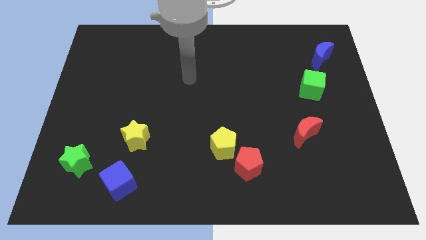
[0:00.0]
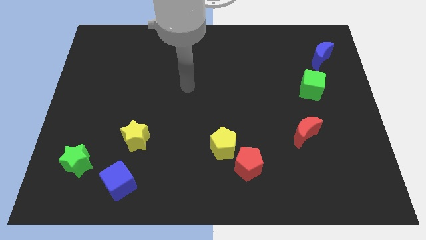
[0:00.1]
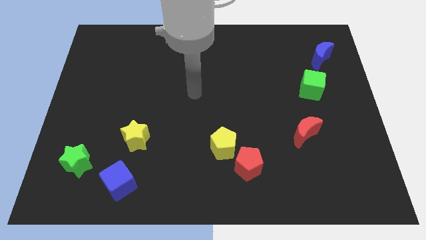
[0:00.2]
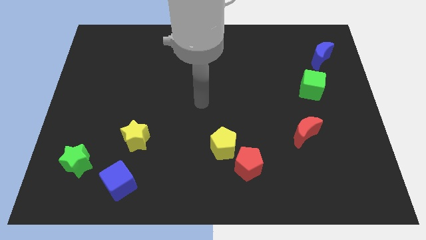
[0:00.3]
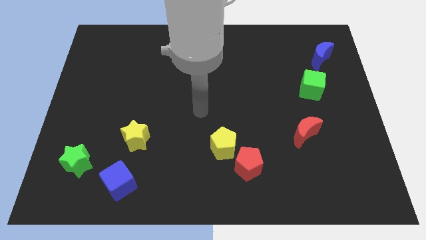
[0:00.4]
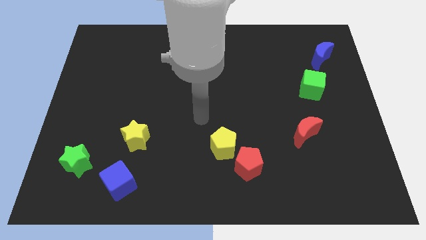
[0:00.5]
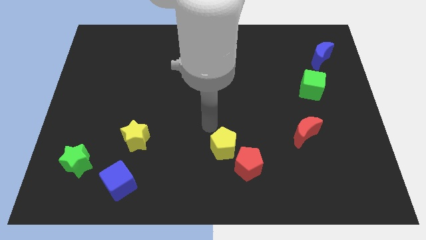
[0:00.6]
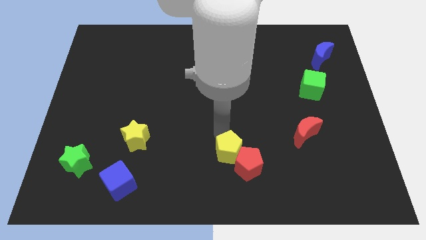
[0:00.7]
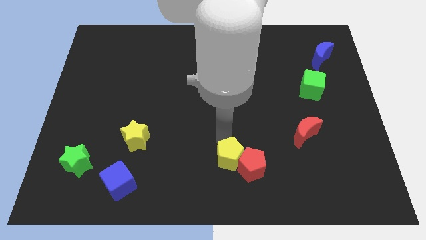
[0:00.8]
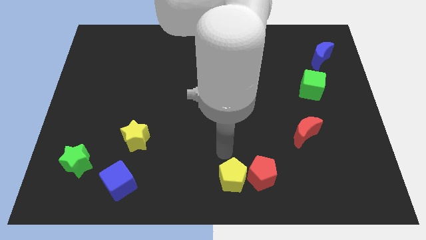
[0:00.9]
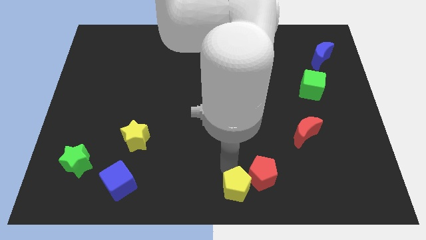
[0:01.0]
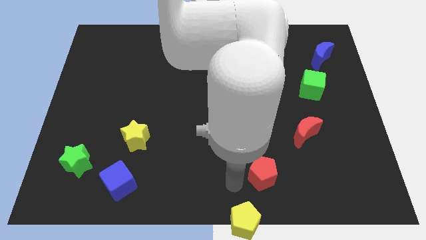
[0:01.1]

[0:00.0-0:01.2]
move the red pentagon away from the yellow pentagon

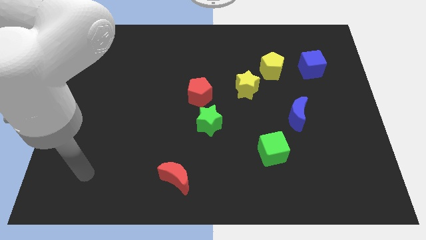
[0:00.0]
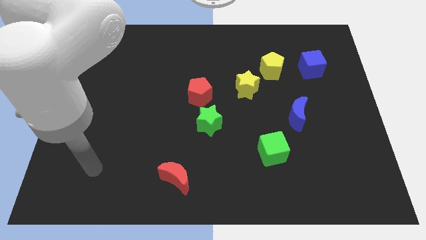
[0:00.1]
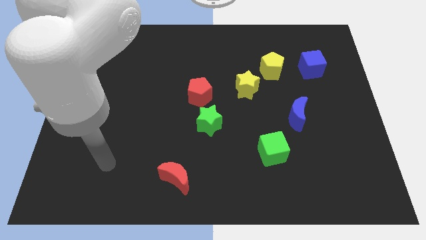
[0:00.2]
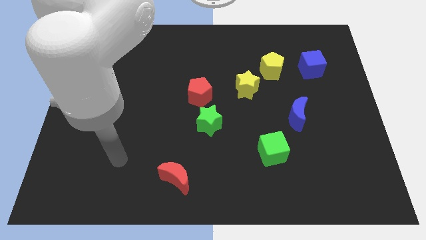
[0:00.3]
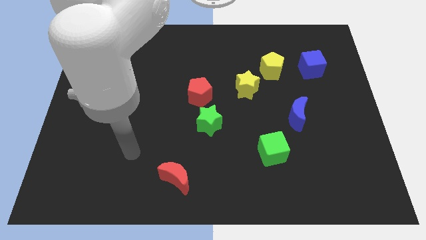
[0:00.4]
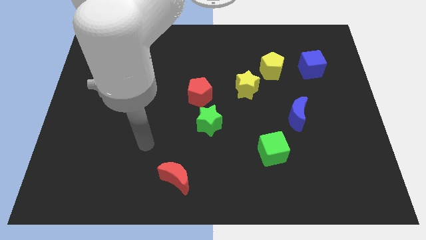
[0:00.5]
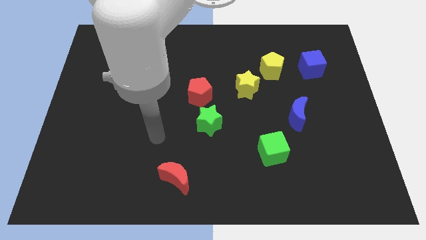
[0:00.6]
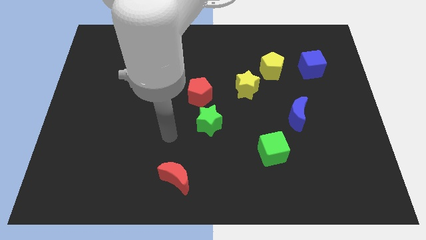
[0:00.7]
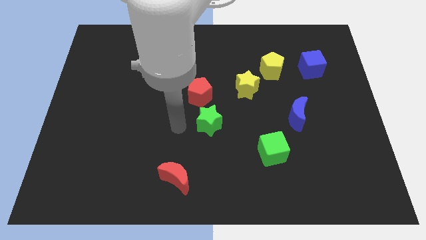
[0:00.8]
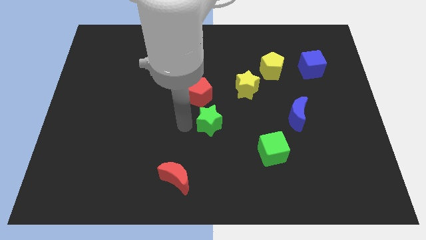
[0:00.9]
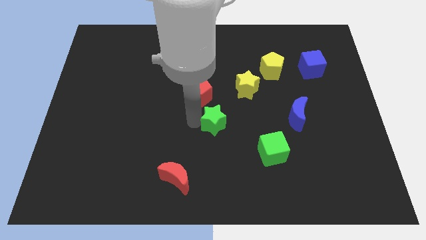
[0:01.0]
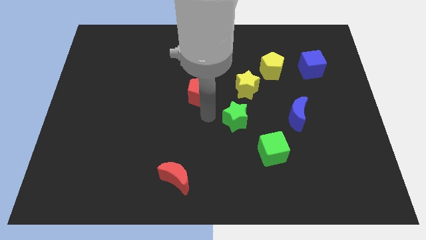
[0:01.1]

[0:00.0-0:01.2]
separate the red pentagon from the green star

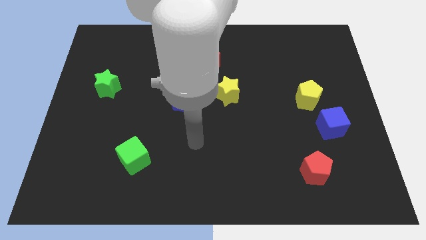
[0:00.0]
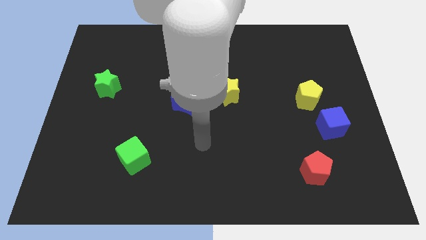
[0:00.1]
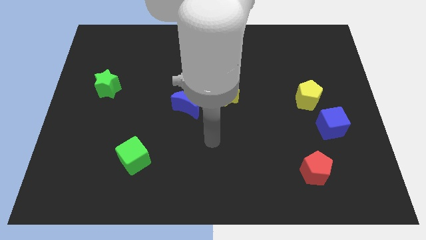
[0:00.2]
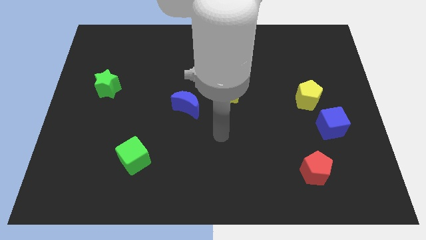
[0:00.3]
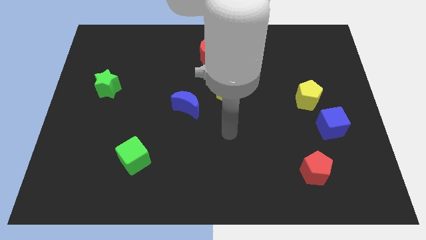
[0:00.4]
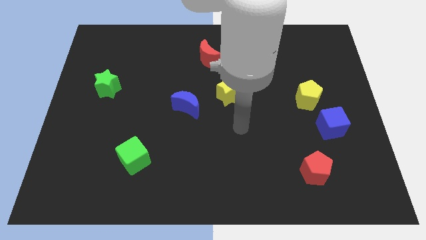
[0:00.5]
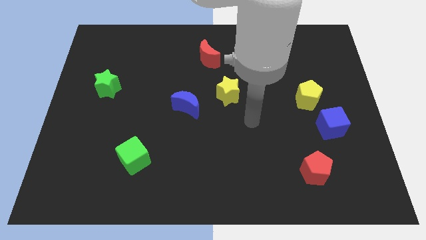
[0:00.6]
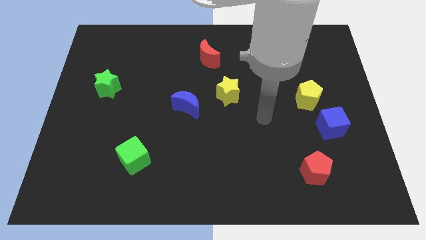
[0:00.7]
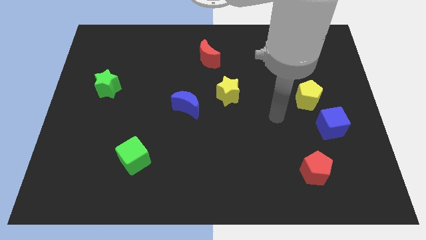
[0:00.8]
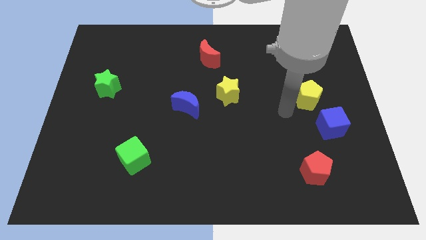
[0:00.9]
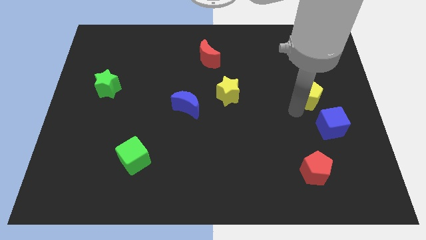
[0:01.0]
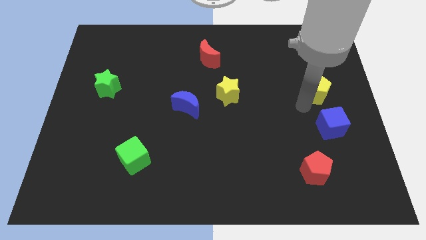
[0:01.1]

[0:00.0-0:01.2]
move the blue cube away from the yellow pentagon

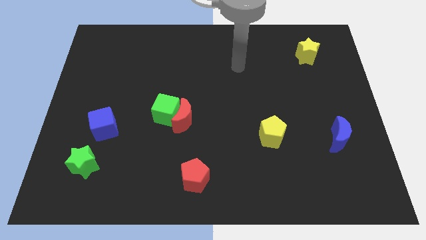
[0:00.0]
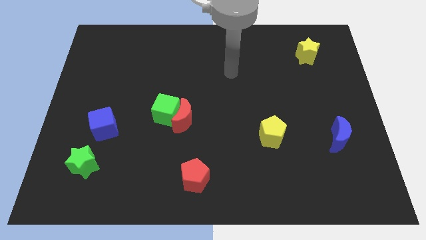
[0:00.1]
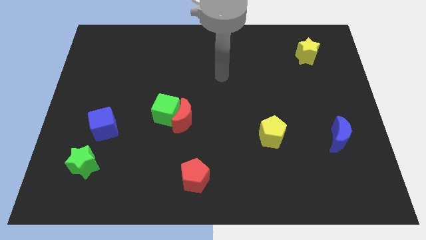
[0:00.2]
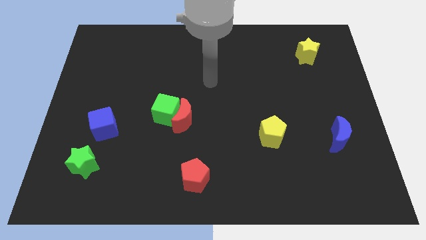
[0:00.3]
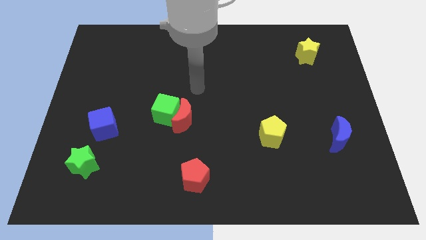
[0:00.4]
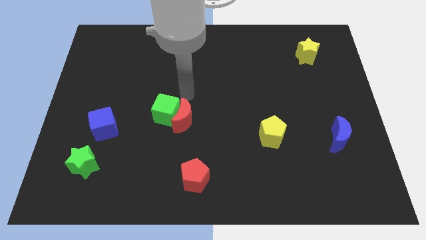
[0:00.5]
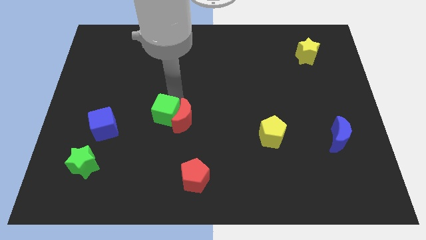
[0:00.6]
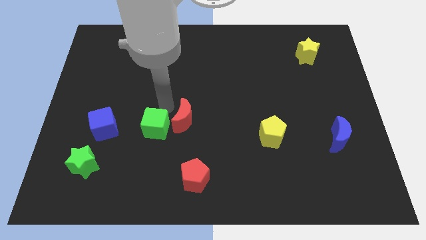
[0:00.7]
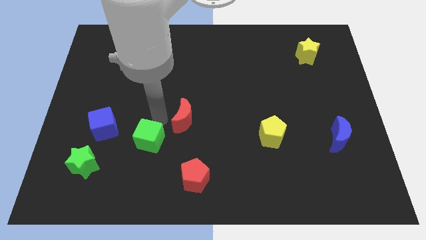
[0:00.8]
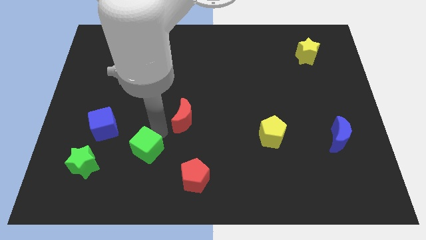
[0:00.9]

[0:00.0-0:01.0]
pull the red moon apart from the green cube

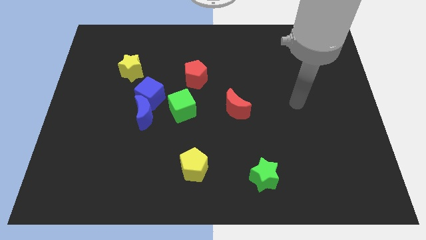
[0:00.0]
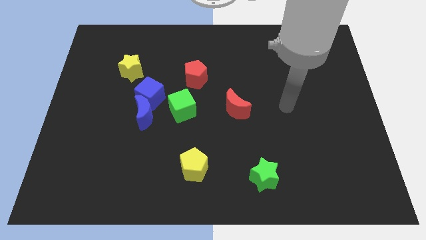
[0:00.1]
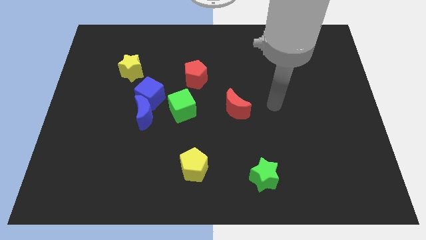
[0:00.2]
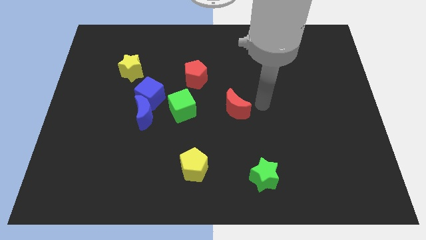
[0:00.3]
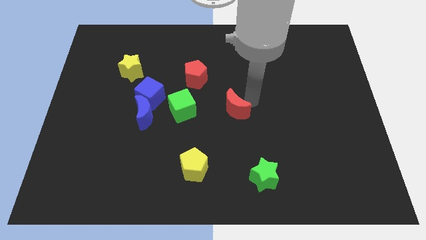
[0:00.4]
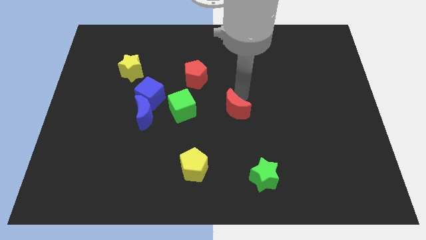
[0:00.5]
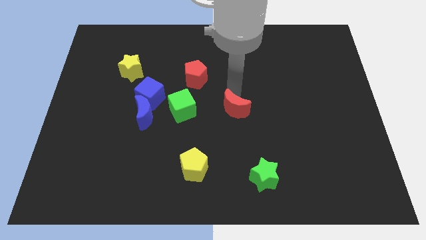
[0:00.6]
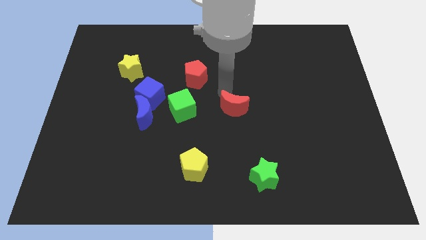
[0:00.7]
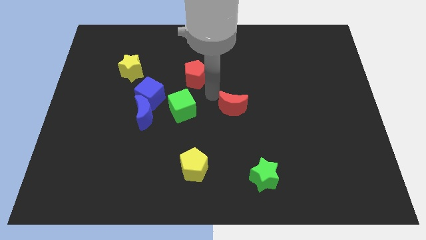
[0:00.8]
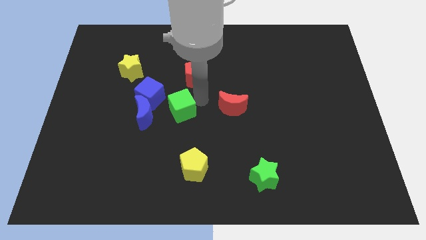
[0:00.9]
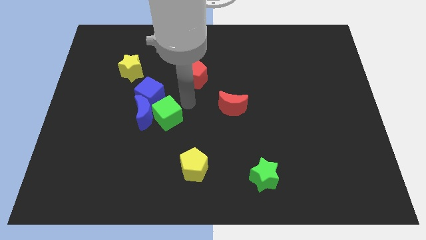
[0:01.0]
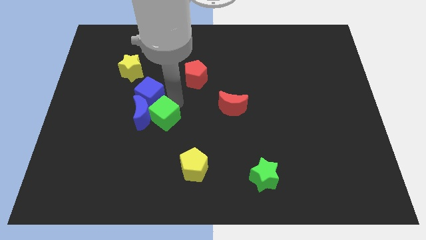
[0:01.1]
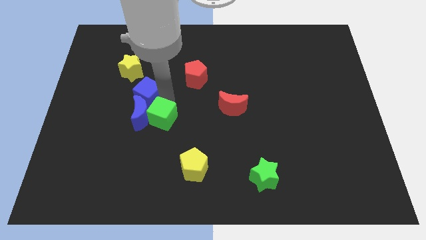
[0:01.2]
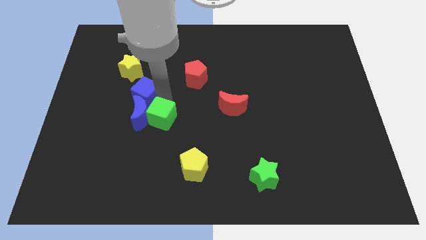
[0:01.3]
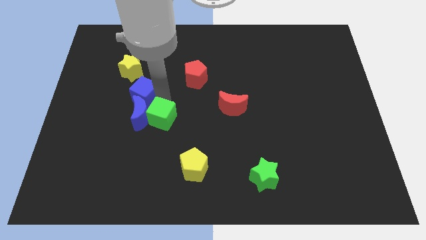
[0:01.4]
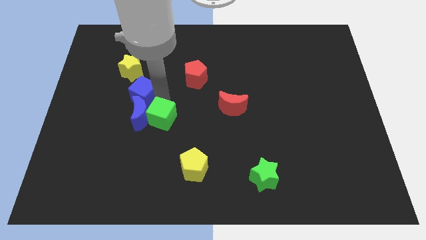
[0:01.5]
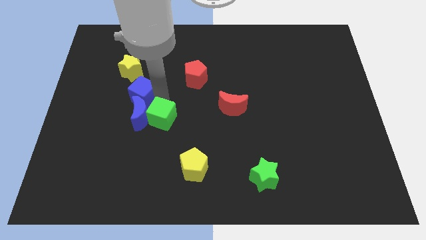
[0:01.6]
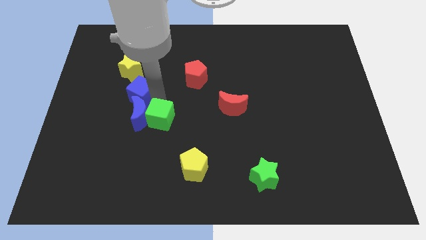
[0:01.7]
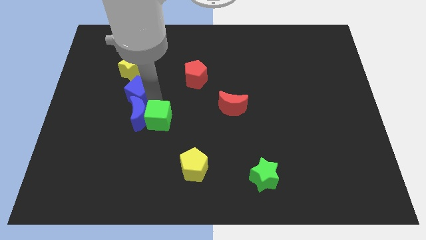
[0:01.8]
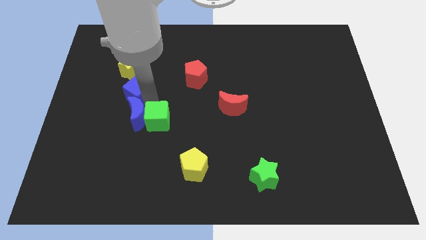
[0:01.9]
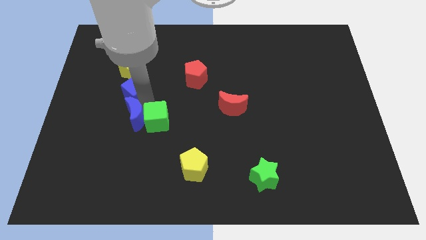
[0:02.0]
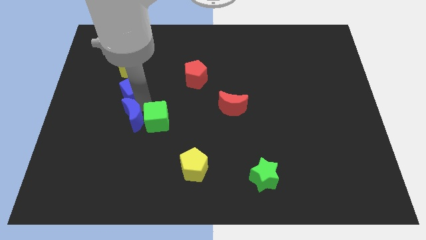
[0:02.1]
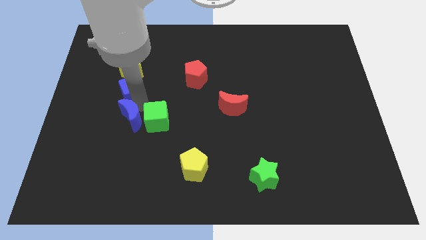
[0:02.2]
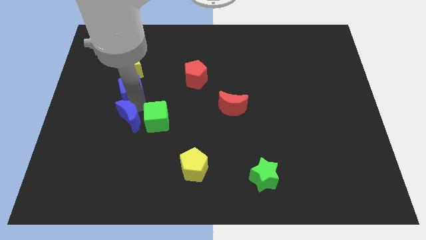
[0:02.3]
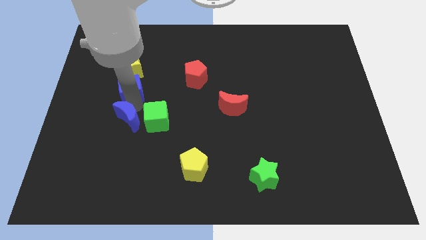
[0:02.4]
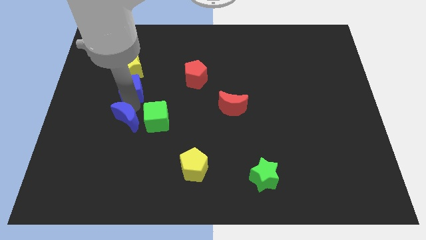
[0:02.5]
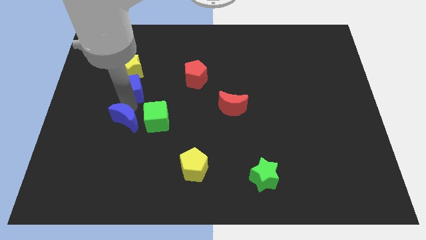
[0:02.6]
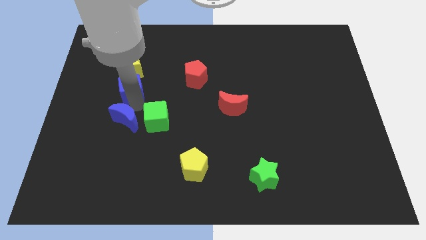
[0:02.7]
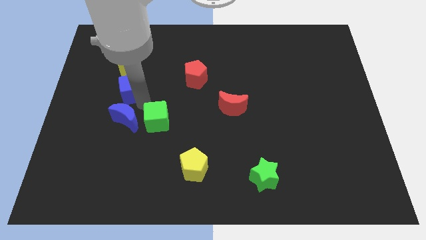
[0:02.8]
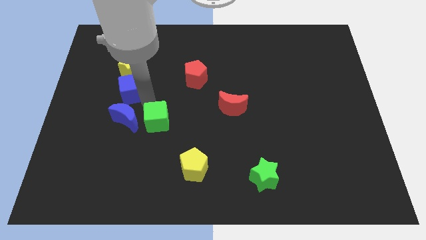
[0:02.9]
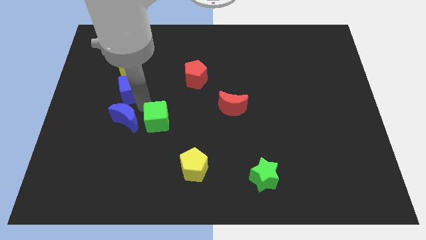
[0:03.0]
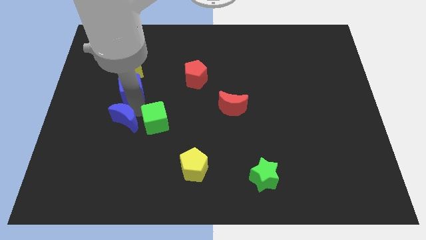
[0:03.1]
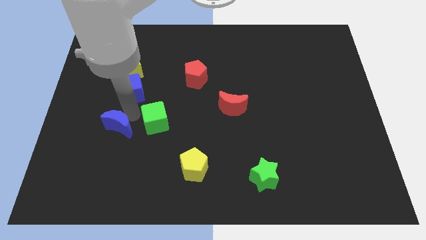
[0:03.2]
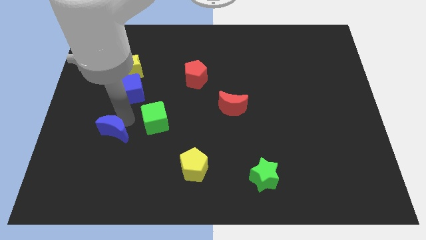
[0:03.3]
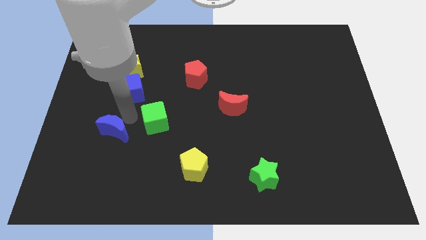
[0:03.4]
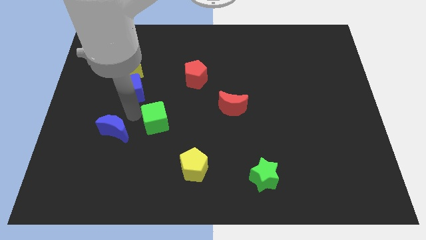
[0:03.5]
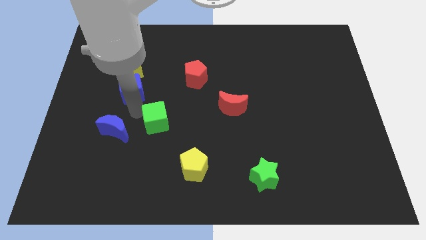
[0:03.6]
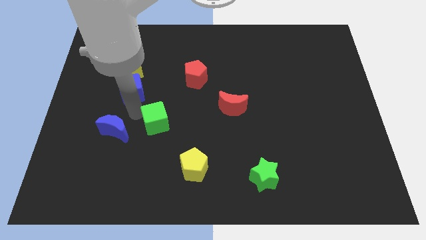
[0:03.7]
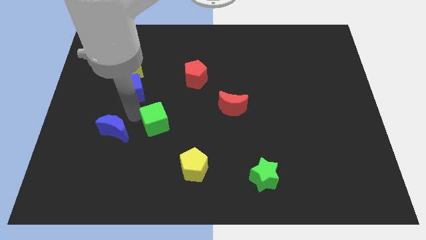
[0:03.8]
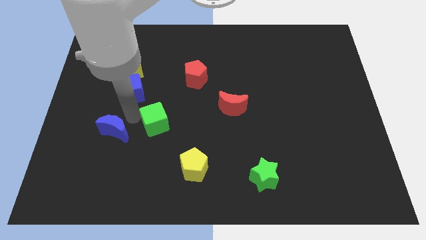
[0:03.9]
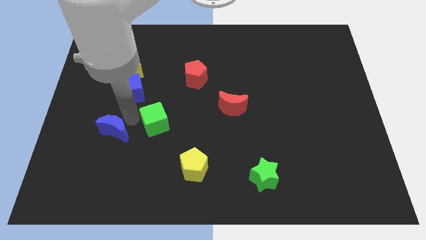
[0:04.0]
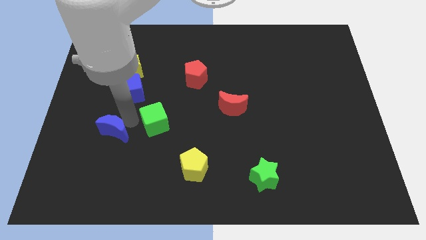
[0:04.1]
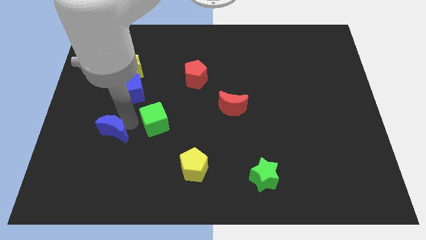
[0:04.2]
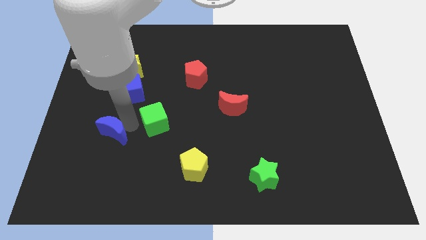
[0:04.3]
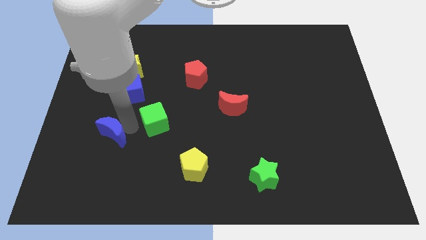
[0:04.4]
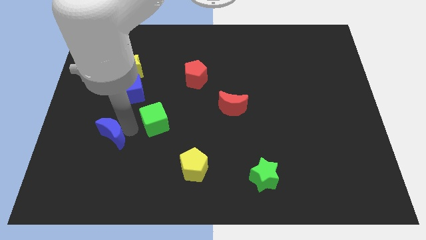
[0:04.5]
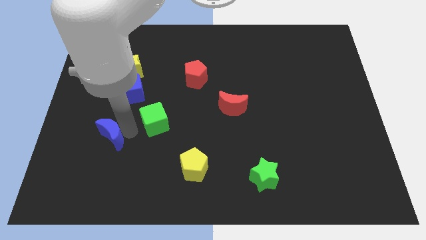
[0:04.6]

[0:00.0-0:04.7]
separate the blue moon from the blue cube and green cube
